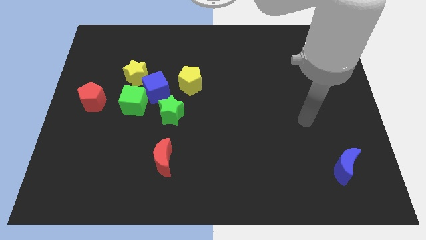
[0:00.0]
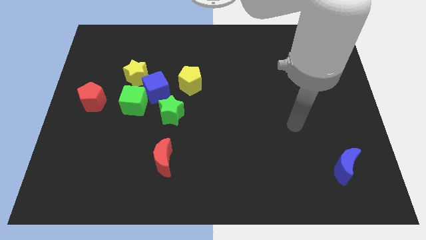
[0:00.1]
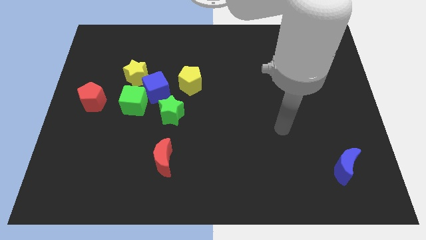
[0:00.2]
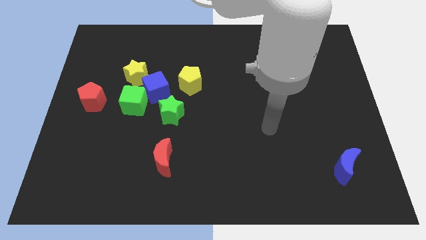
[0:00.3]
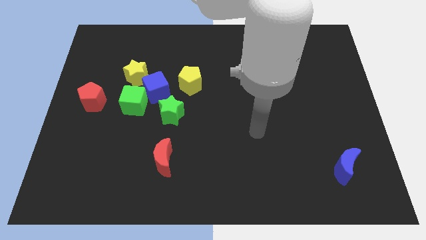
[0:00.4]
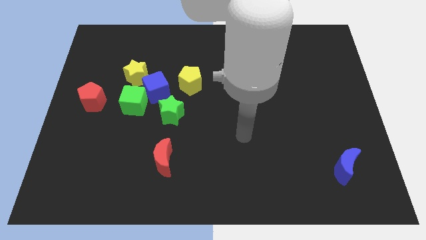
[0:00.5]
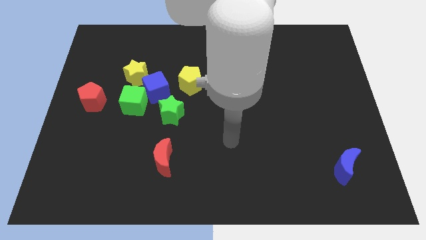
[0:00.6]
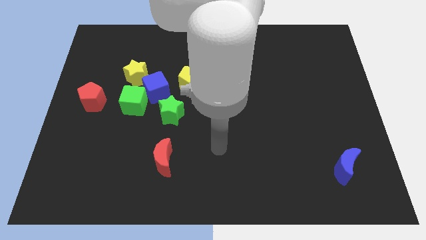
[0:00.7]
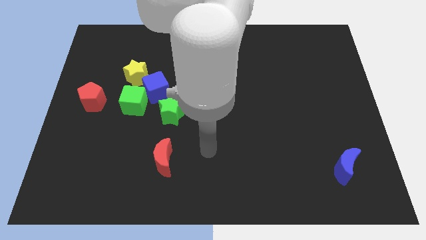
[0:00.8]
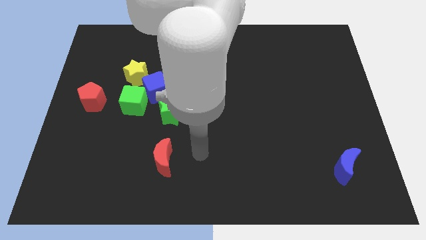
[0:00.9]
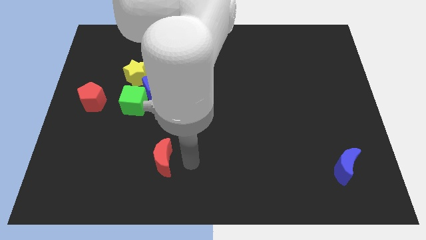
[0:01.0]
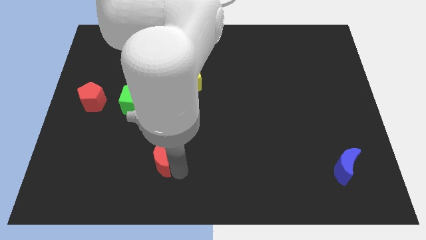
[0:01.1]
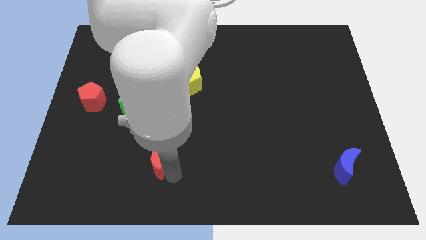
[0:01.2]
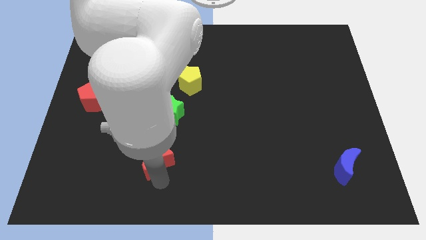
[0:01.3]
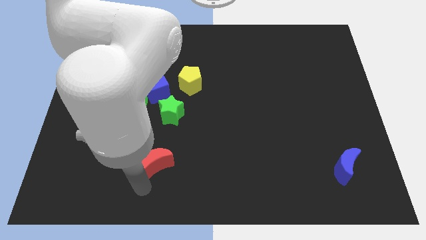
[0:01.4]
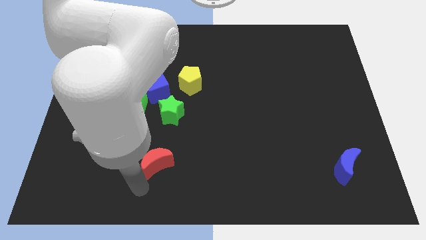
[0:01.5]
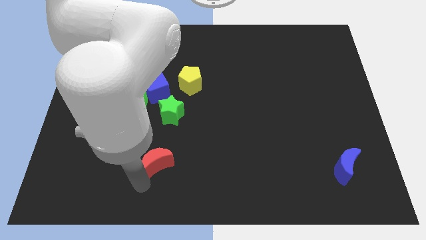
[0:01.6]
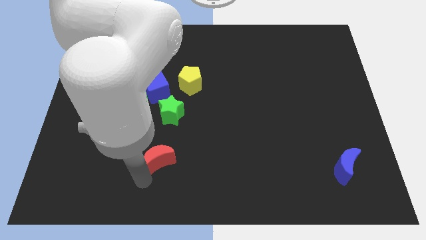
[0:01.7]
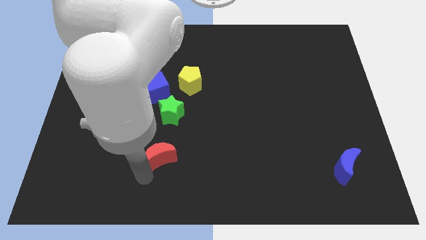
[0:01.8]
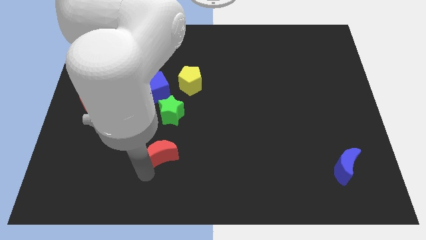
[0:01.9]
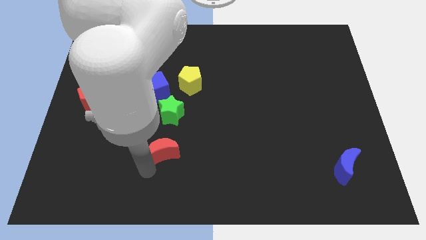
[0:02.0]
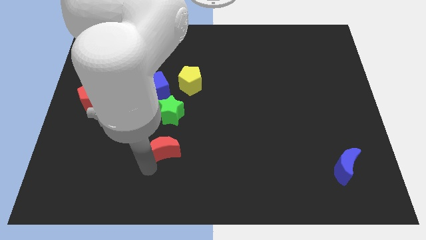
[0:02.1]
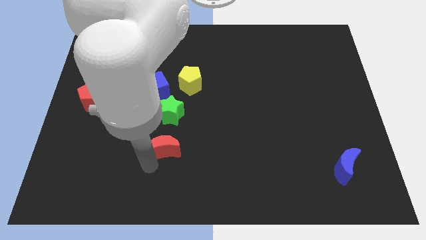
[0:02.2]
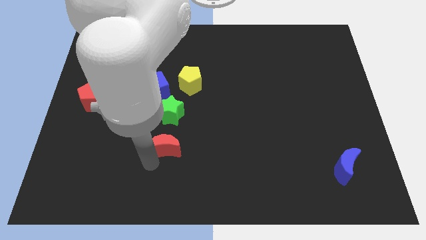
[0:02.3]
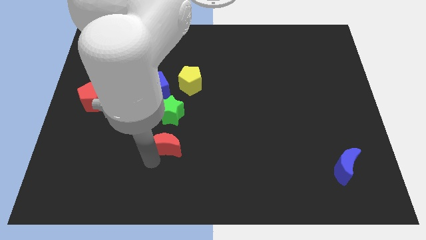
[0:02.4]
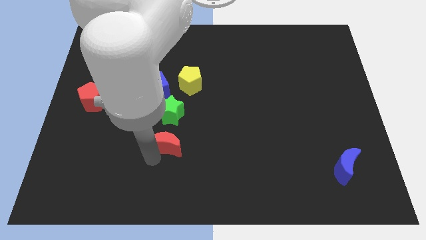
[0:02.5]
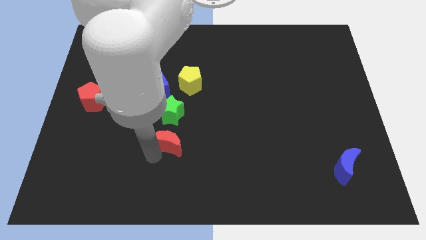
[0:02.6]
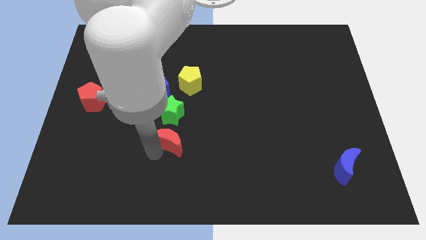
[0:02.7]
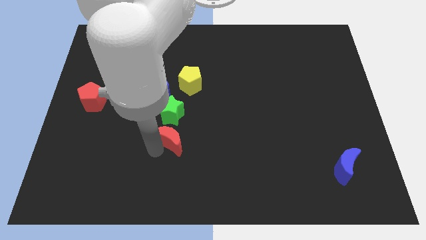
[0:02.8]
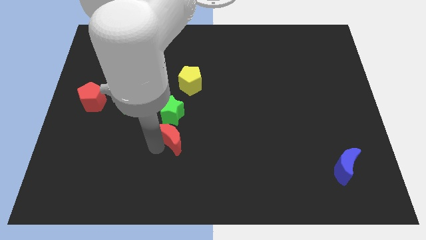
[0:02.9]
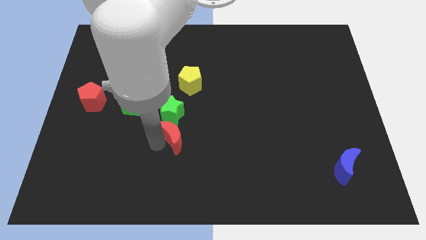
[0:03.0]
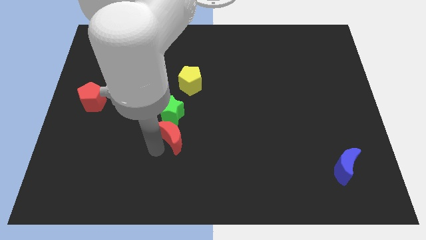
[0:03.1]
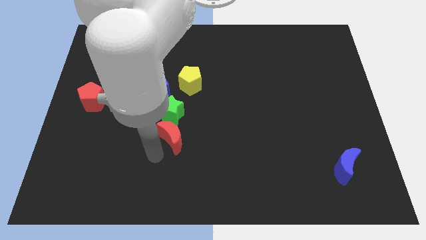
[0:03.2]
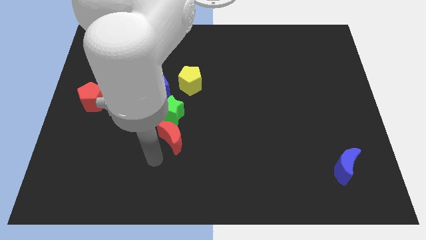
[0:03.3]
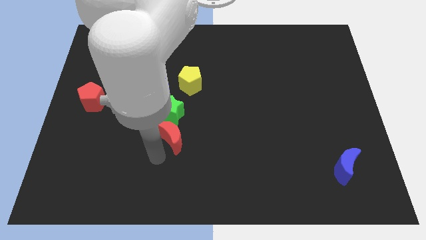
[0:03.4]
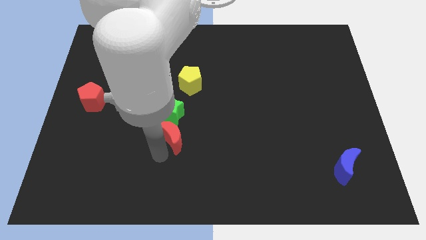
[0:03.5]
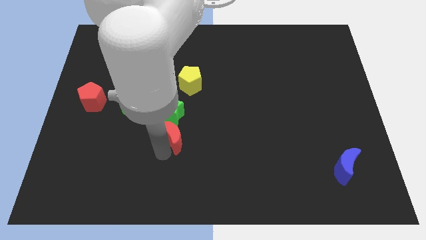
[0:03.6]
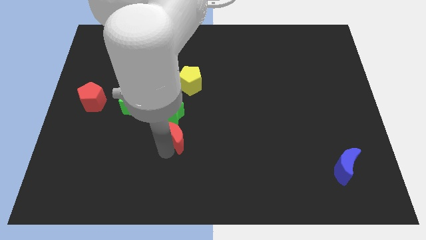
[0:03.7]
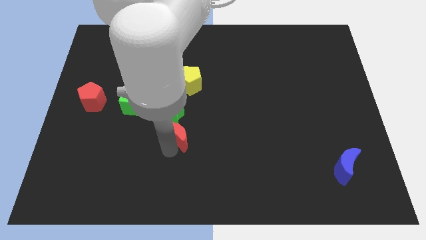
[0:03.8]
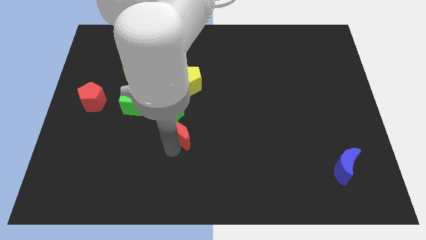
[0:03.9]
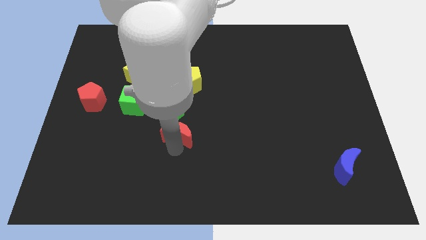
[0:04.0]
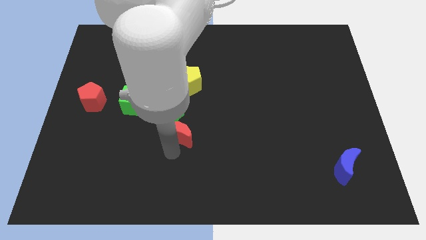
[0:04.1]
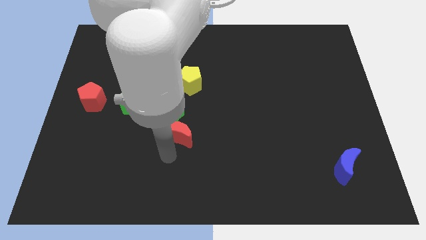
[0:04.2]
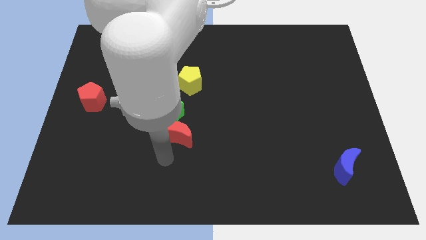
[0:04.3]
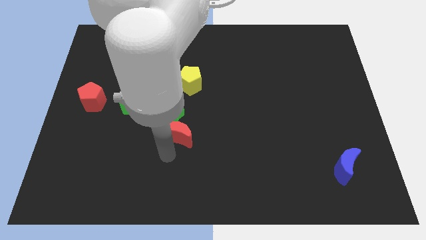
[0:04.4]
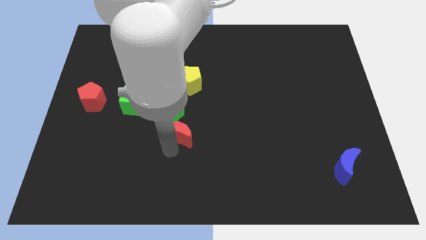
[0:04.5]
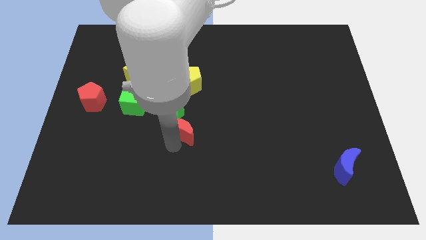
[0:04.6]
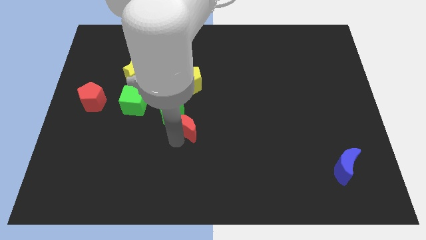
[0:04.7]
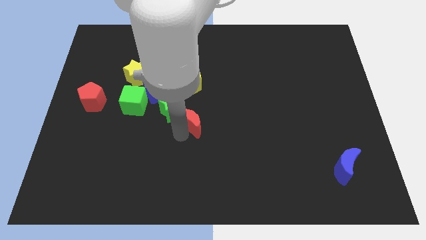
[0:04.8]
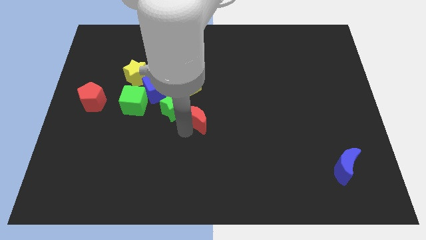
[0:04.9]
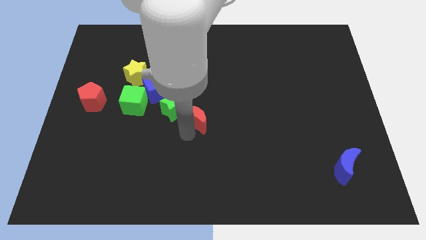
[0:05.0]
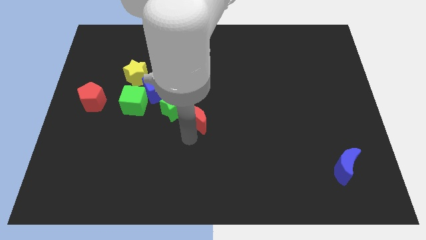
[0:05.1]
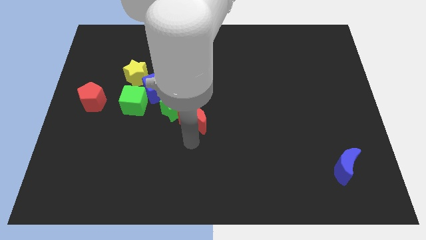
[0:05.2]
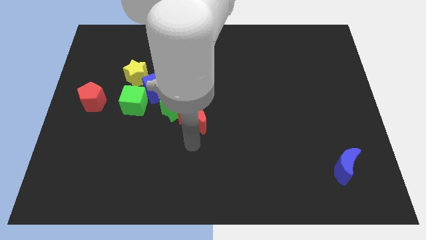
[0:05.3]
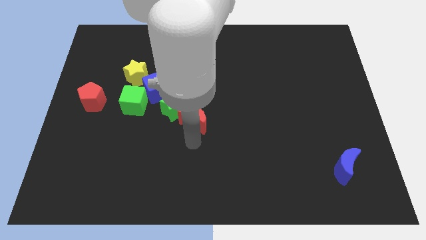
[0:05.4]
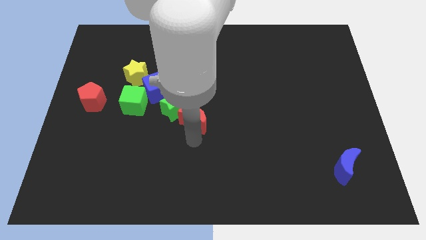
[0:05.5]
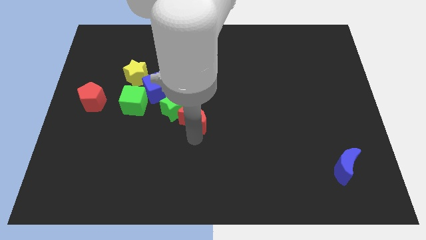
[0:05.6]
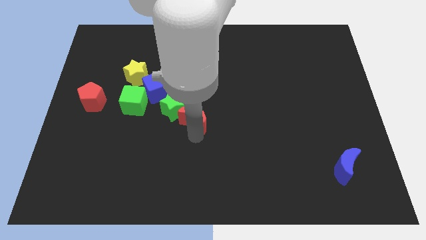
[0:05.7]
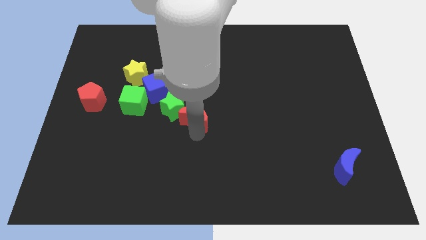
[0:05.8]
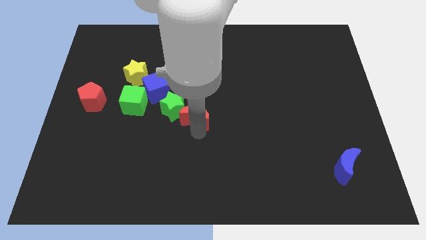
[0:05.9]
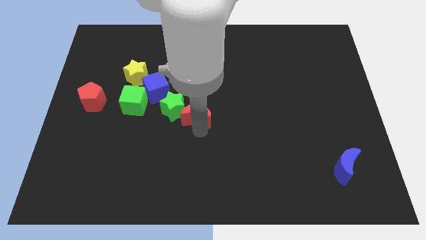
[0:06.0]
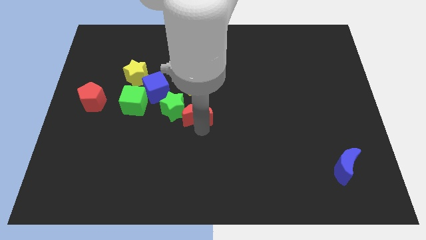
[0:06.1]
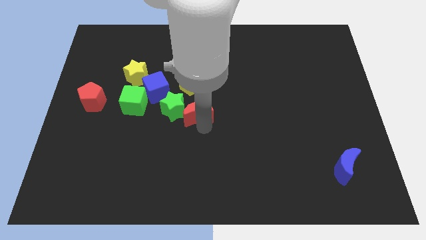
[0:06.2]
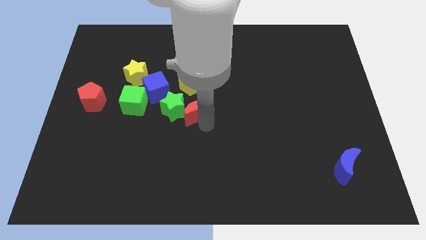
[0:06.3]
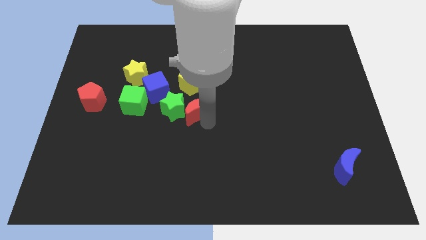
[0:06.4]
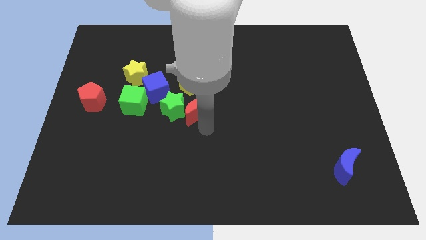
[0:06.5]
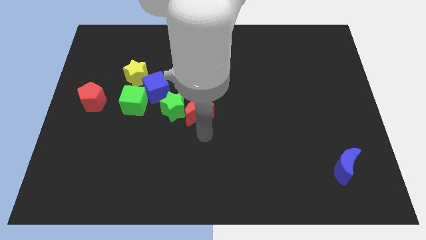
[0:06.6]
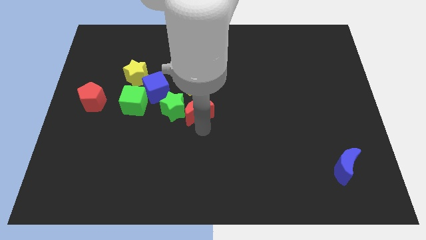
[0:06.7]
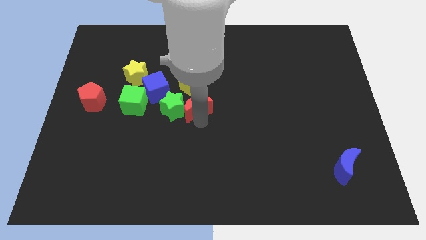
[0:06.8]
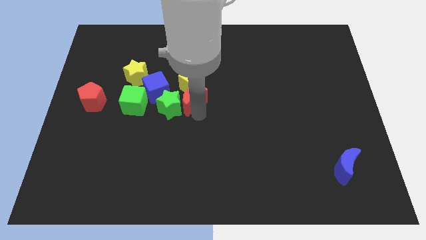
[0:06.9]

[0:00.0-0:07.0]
put the red moon towards the yellow pentagon
